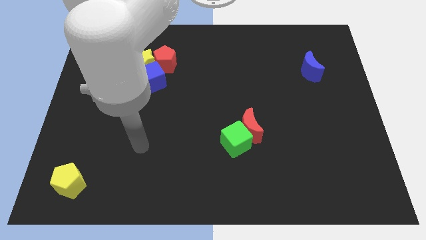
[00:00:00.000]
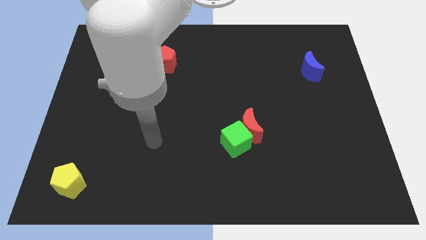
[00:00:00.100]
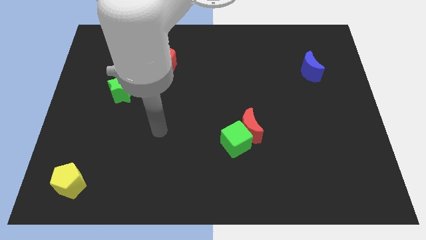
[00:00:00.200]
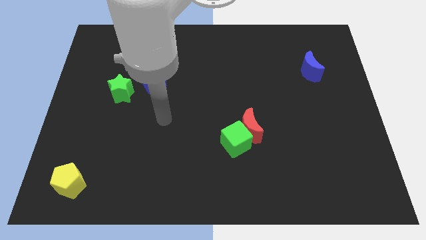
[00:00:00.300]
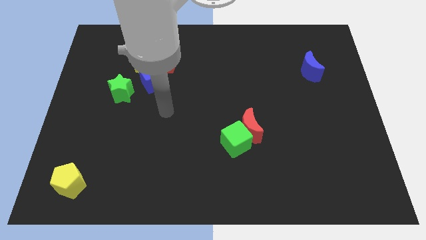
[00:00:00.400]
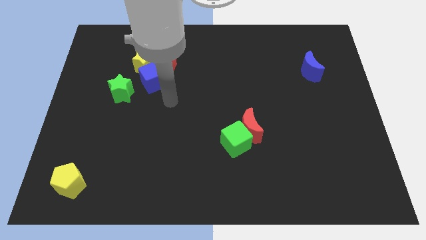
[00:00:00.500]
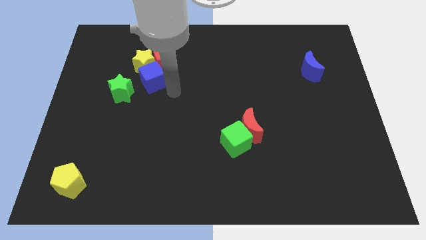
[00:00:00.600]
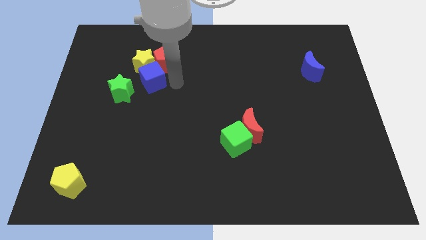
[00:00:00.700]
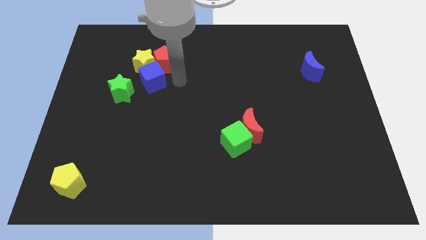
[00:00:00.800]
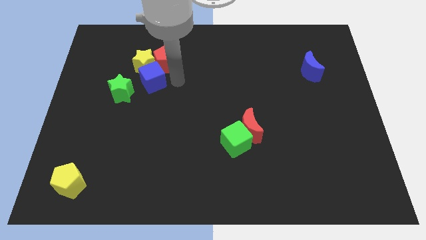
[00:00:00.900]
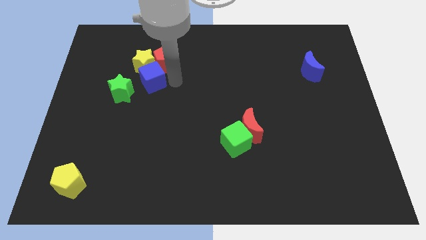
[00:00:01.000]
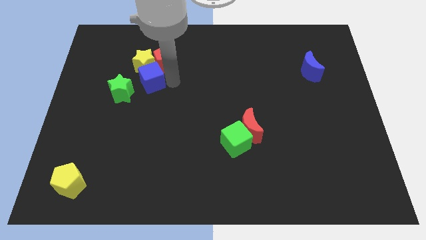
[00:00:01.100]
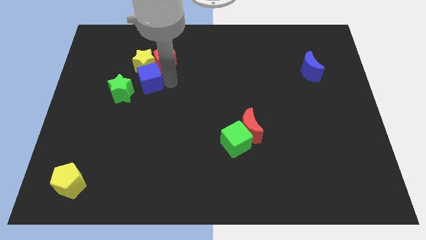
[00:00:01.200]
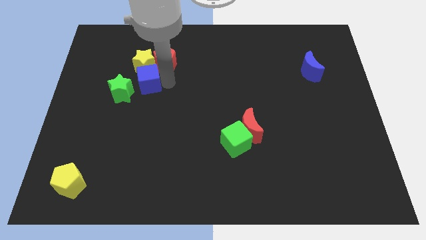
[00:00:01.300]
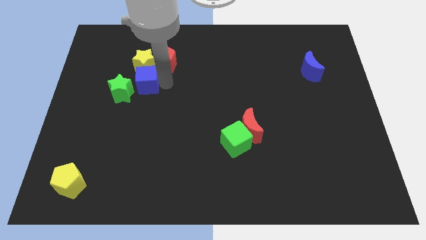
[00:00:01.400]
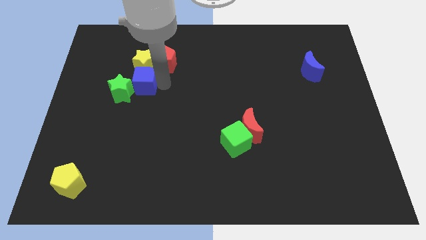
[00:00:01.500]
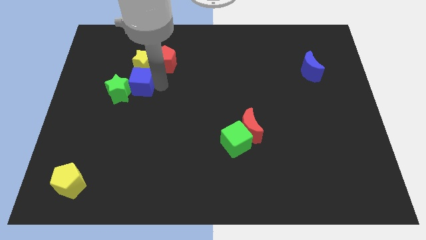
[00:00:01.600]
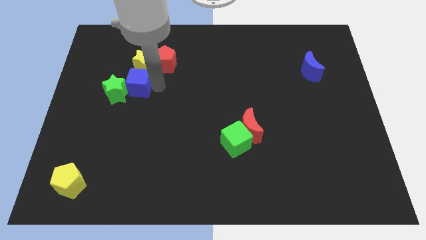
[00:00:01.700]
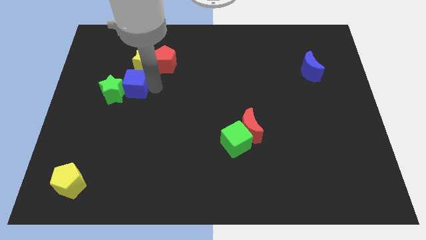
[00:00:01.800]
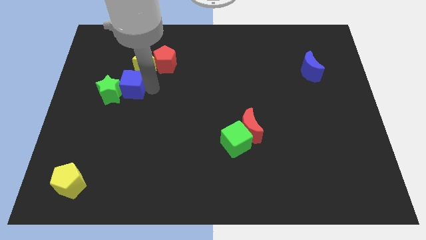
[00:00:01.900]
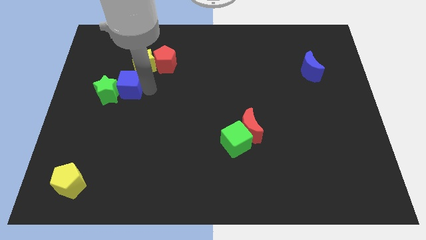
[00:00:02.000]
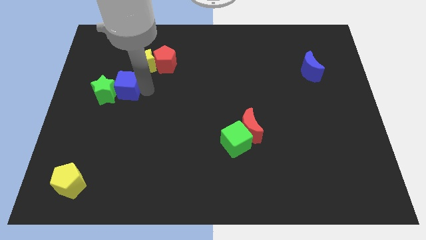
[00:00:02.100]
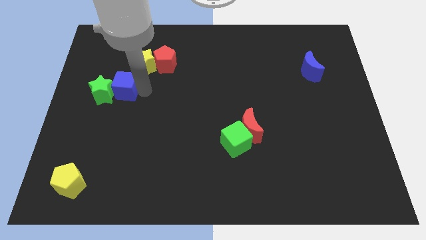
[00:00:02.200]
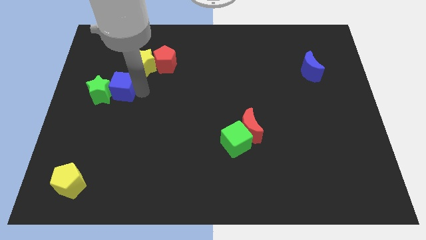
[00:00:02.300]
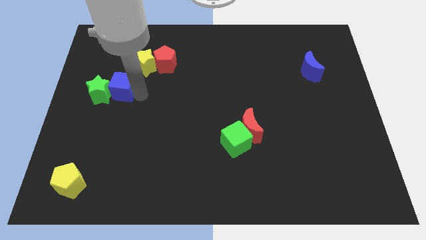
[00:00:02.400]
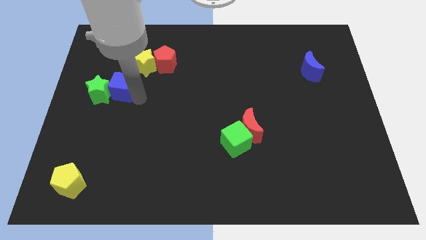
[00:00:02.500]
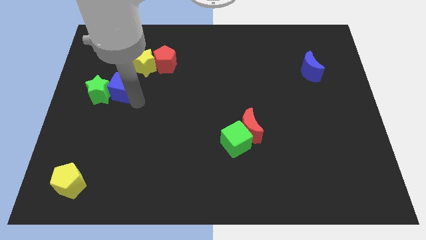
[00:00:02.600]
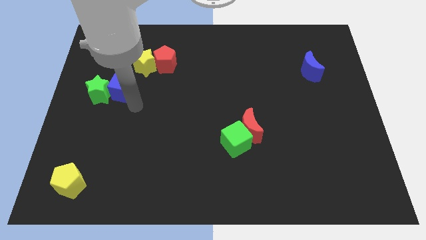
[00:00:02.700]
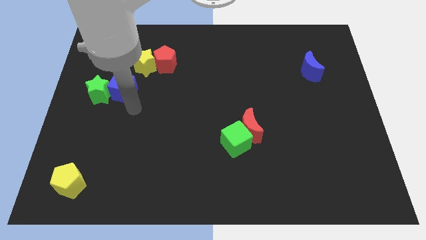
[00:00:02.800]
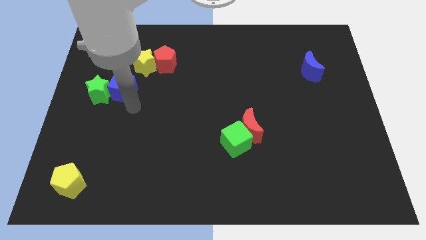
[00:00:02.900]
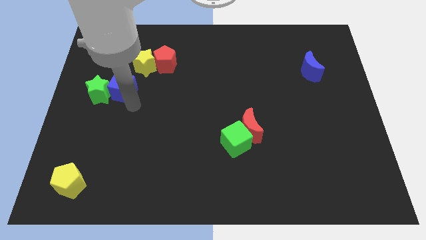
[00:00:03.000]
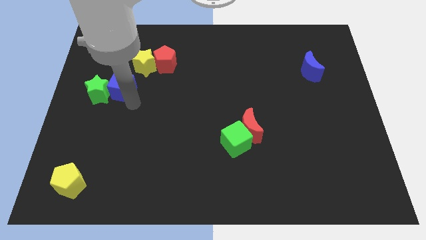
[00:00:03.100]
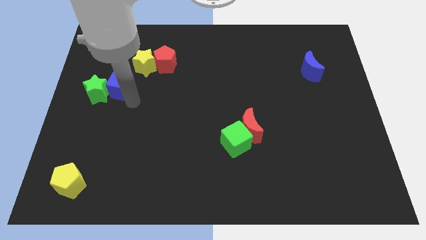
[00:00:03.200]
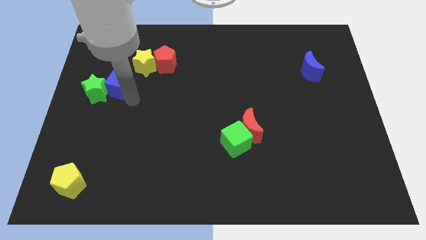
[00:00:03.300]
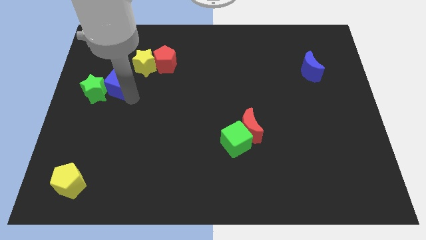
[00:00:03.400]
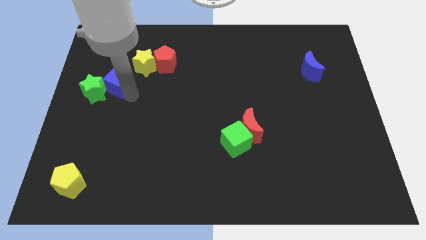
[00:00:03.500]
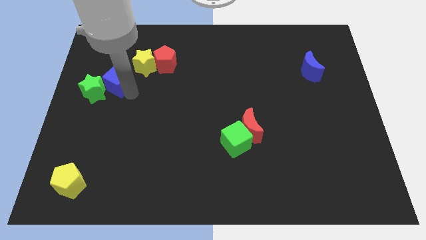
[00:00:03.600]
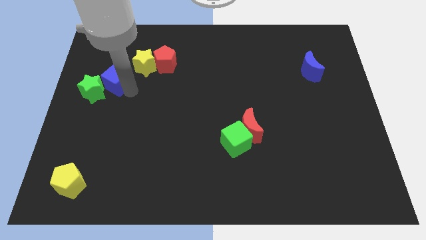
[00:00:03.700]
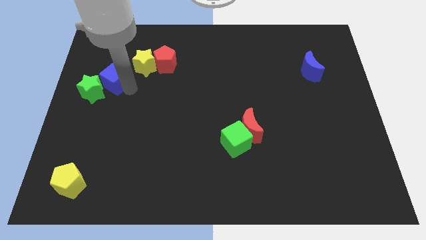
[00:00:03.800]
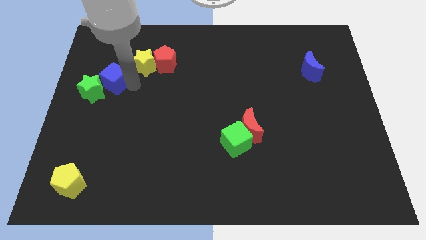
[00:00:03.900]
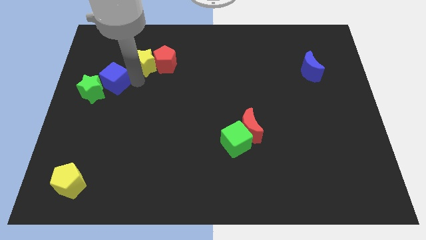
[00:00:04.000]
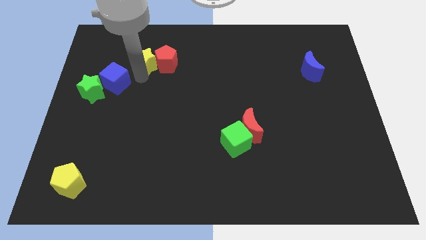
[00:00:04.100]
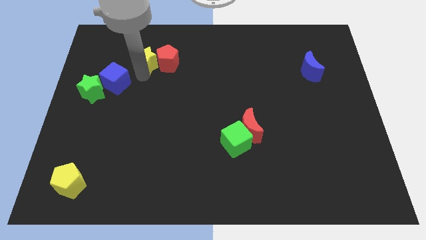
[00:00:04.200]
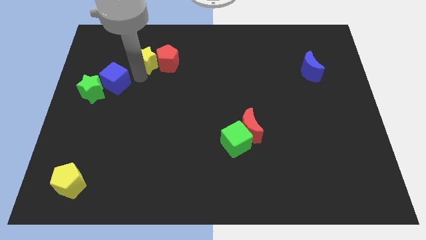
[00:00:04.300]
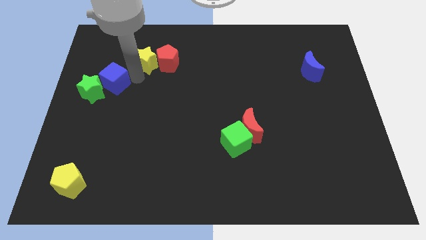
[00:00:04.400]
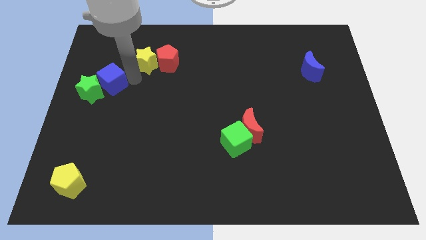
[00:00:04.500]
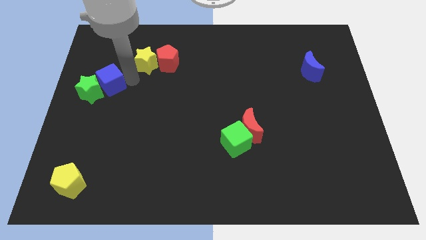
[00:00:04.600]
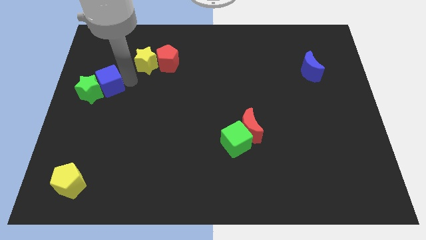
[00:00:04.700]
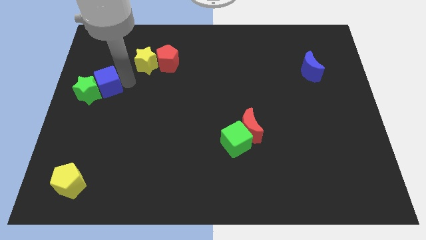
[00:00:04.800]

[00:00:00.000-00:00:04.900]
put the blue cube to the center left

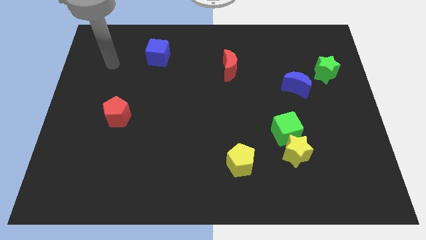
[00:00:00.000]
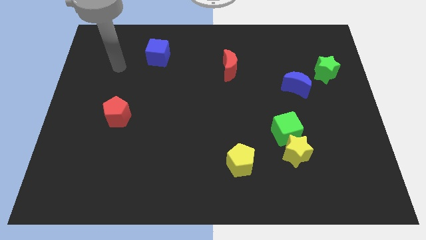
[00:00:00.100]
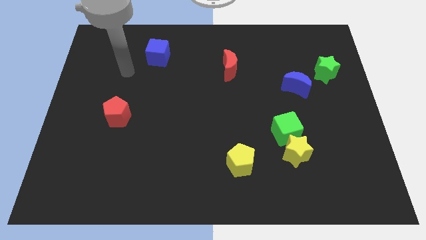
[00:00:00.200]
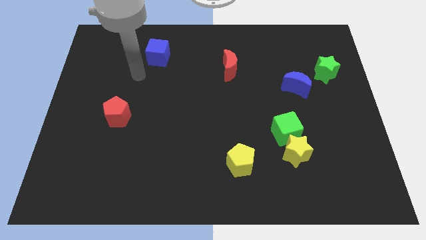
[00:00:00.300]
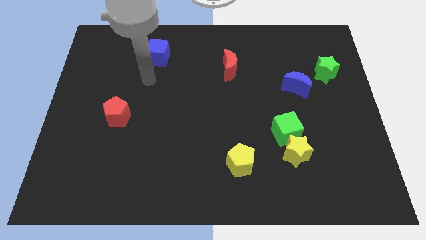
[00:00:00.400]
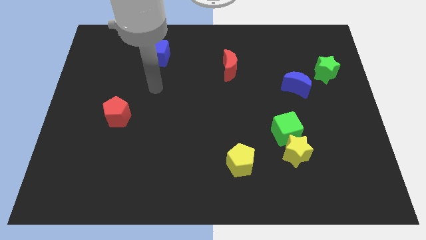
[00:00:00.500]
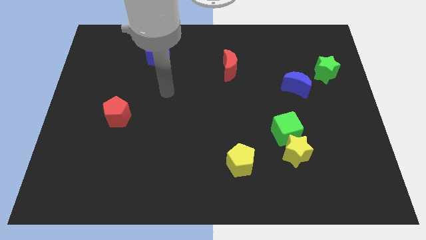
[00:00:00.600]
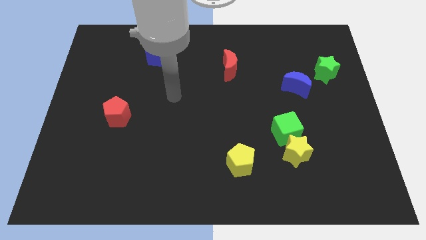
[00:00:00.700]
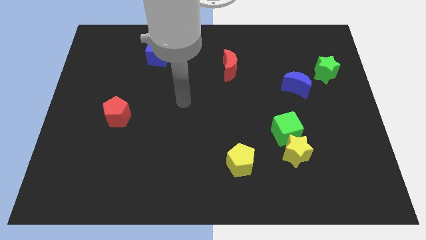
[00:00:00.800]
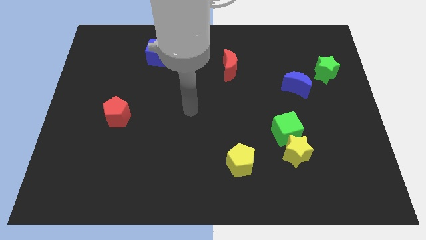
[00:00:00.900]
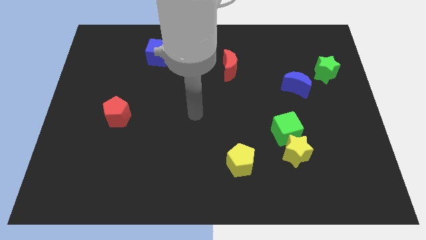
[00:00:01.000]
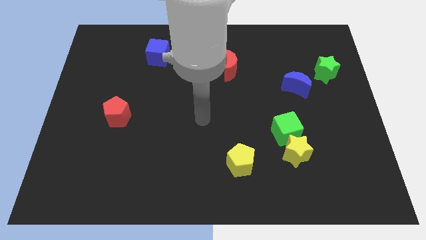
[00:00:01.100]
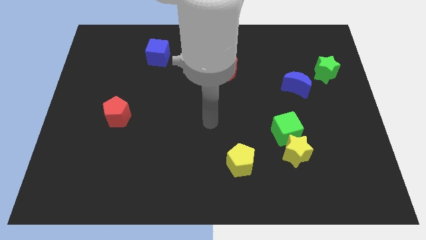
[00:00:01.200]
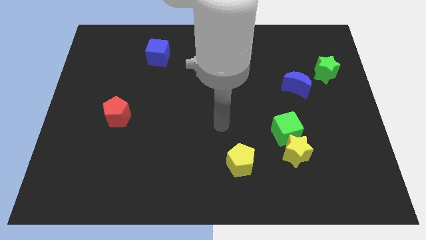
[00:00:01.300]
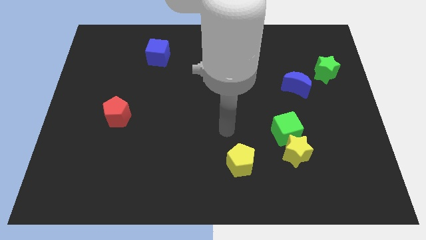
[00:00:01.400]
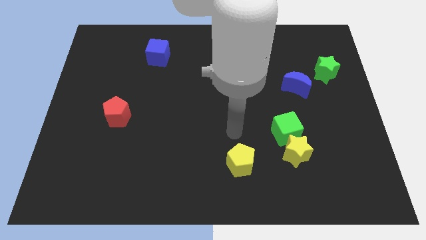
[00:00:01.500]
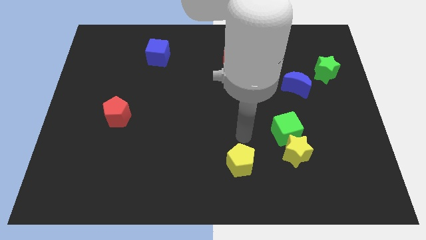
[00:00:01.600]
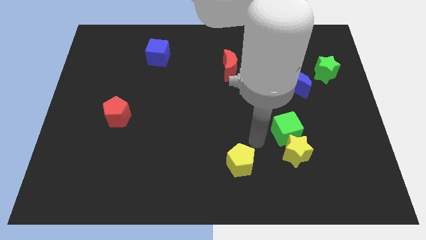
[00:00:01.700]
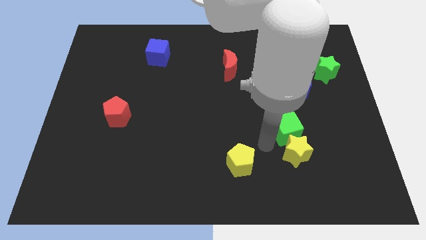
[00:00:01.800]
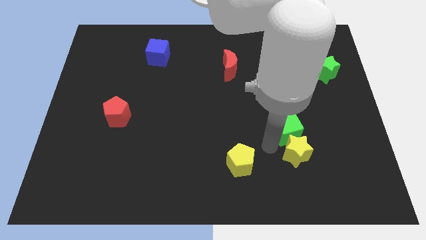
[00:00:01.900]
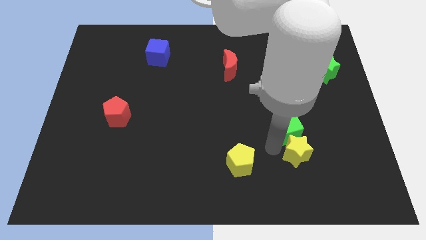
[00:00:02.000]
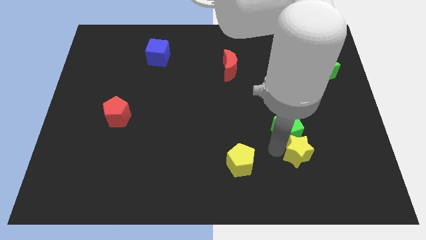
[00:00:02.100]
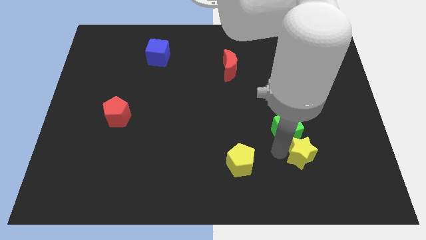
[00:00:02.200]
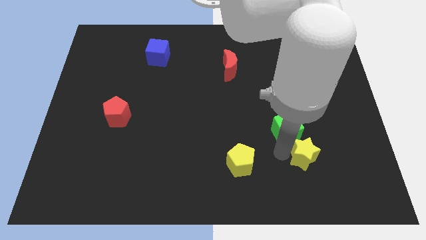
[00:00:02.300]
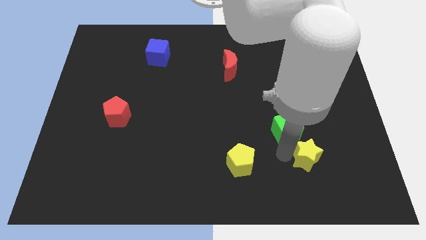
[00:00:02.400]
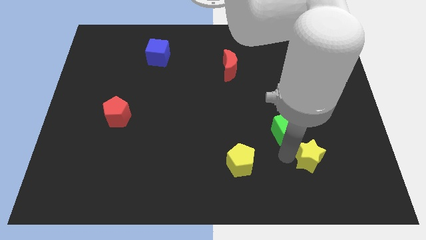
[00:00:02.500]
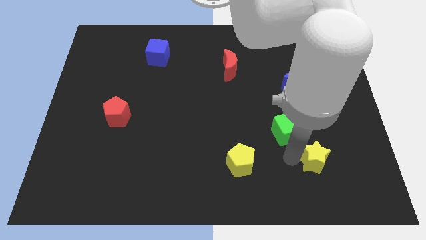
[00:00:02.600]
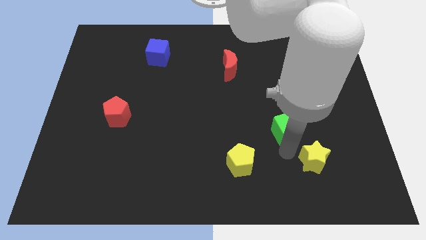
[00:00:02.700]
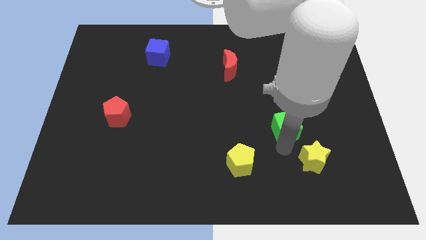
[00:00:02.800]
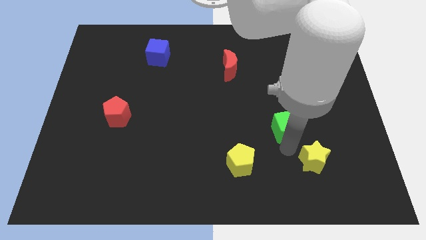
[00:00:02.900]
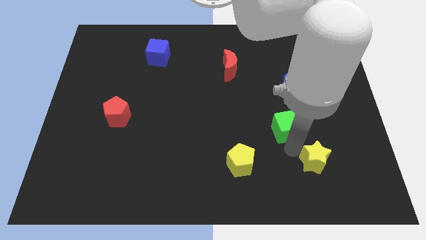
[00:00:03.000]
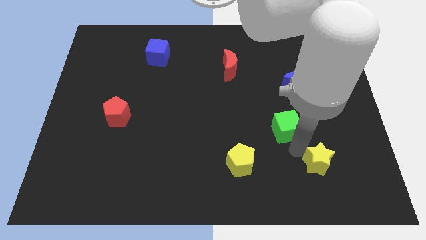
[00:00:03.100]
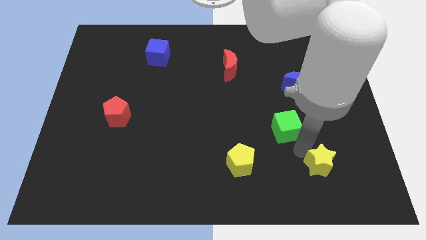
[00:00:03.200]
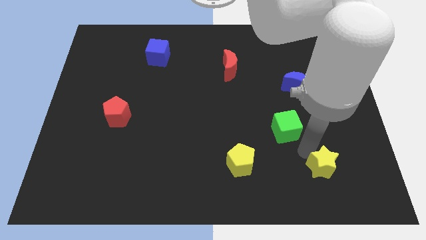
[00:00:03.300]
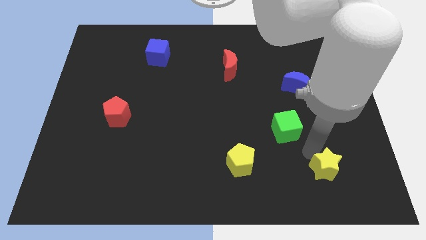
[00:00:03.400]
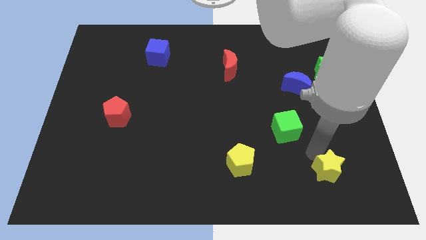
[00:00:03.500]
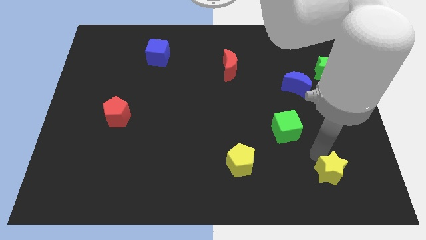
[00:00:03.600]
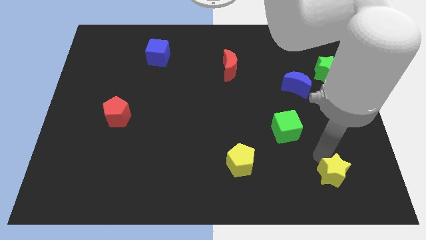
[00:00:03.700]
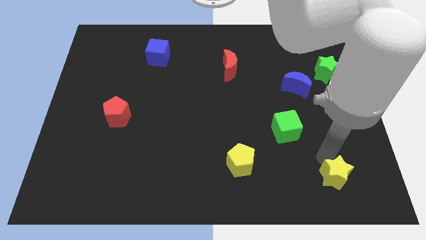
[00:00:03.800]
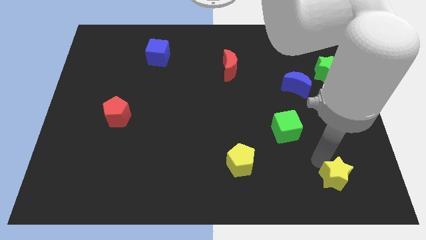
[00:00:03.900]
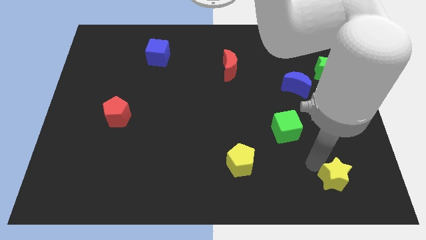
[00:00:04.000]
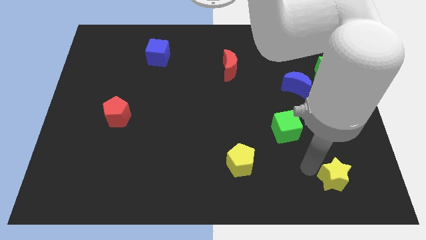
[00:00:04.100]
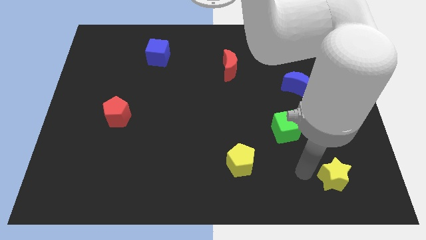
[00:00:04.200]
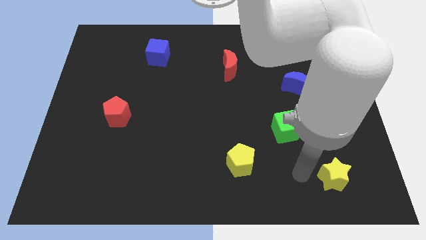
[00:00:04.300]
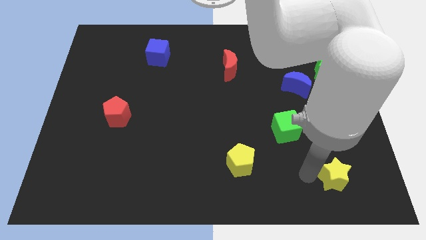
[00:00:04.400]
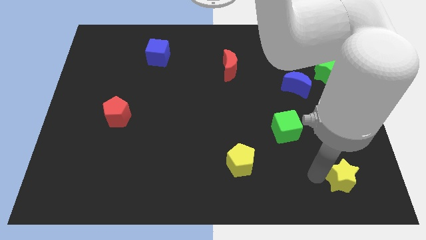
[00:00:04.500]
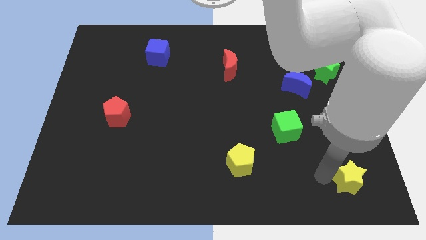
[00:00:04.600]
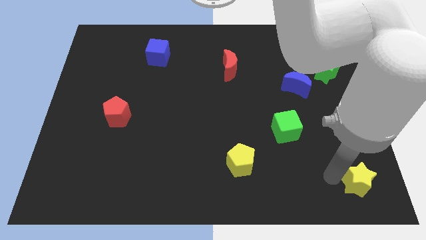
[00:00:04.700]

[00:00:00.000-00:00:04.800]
put the yellow star to the bottom right of the board
